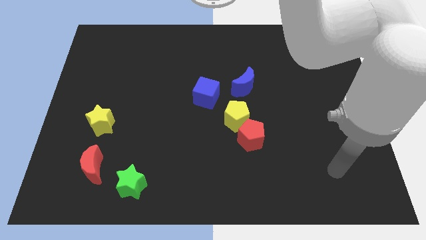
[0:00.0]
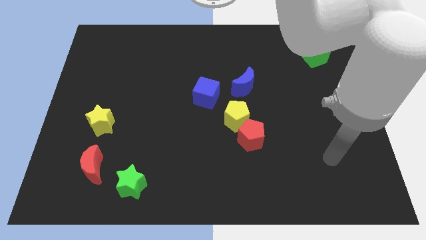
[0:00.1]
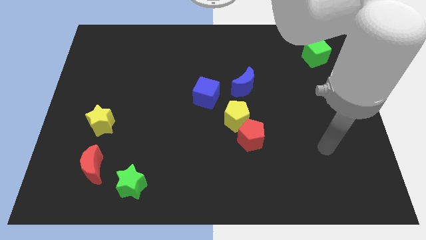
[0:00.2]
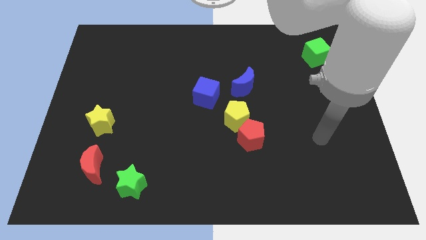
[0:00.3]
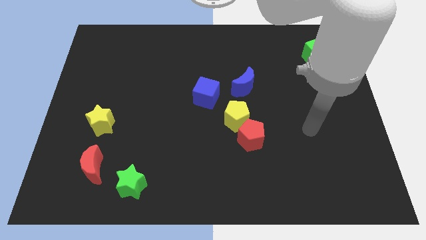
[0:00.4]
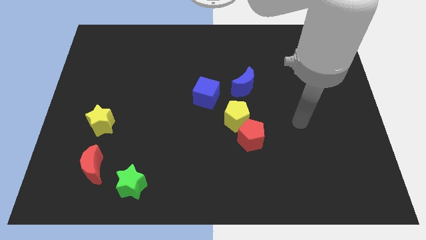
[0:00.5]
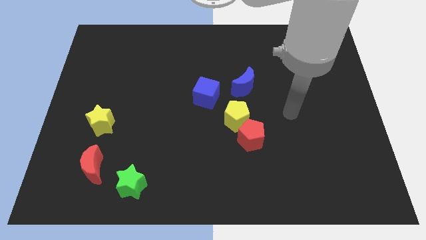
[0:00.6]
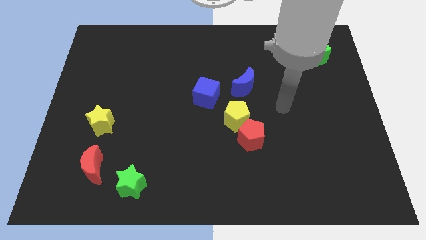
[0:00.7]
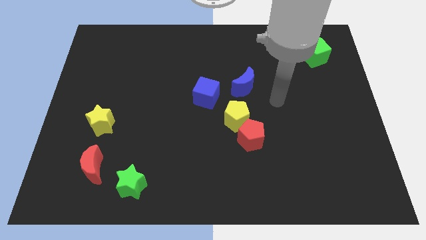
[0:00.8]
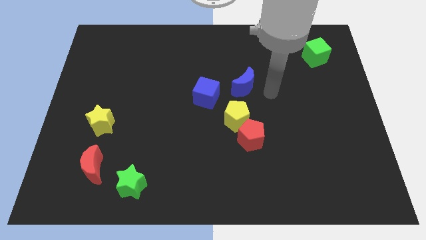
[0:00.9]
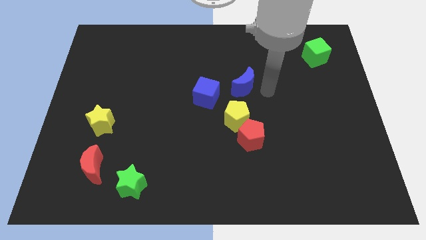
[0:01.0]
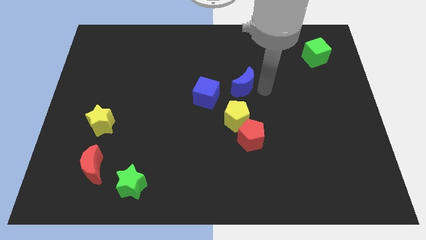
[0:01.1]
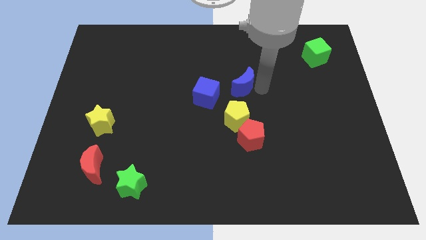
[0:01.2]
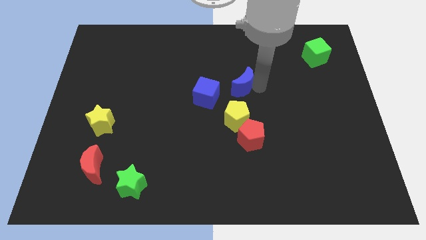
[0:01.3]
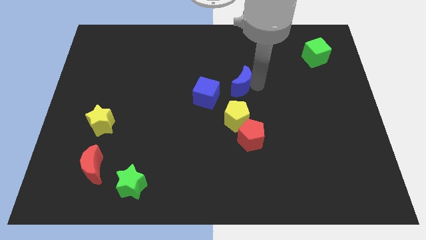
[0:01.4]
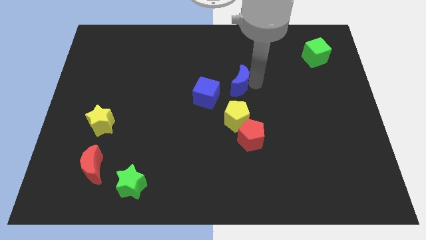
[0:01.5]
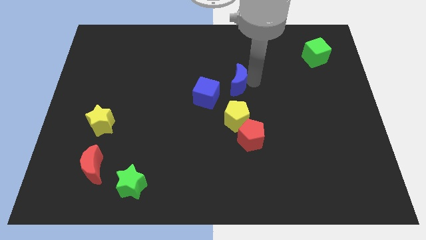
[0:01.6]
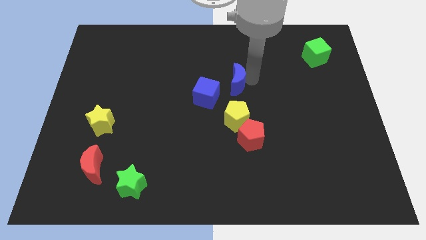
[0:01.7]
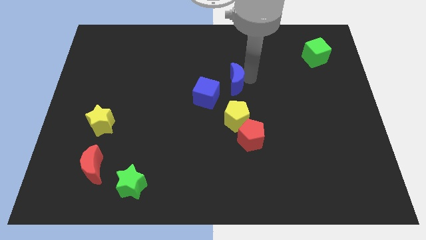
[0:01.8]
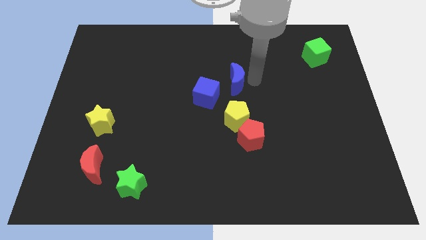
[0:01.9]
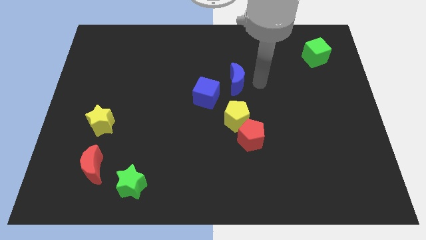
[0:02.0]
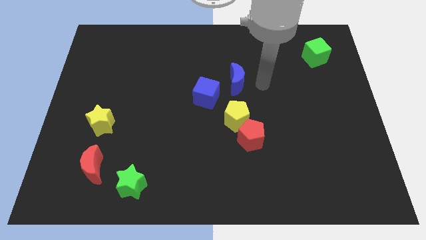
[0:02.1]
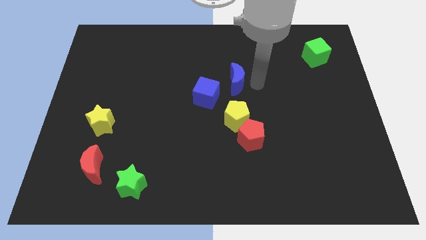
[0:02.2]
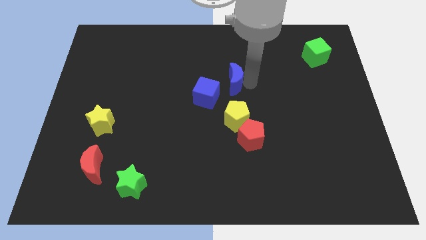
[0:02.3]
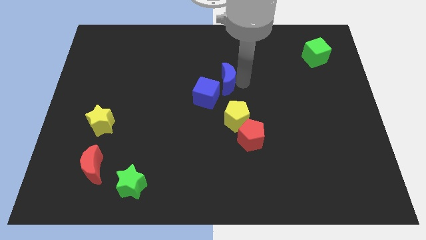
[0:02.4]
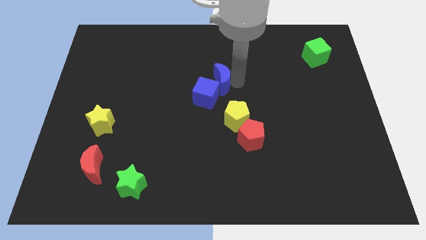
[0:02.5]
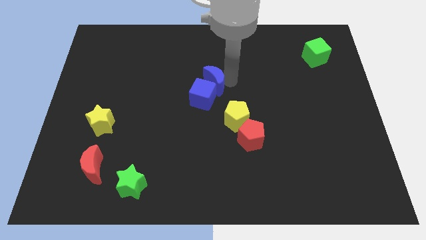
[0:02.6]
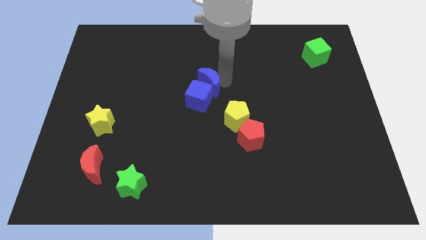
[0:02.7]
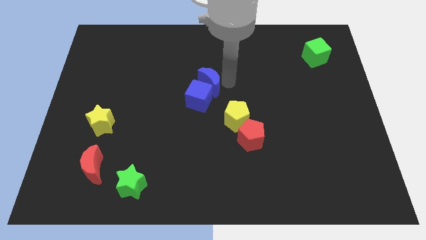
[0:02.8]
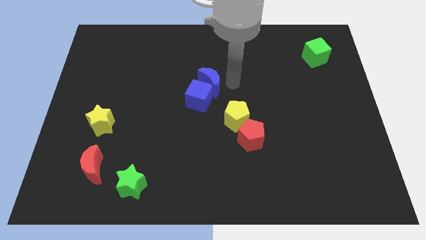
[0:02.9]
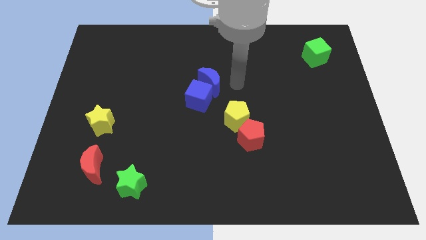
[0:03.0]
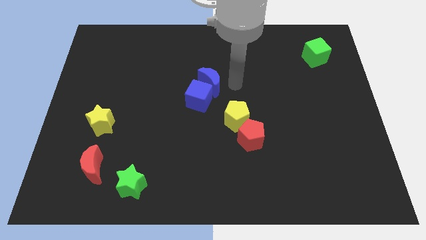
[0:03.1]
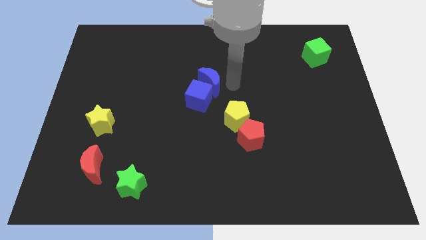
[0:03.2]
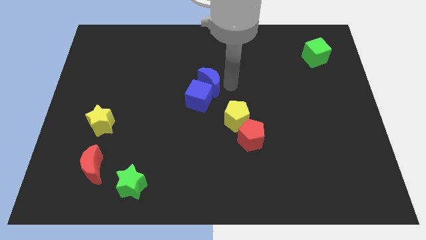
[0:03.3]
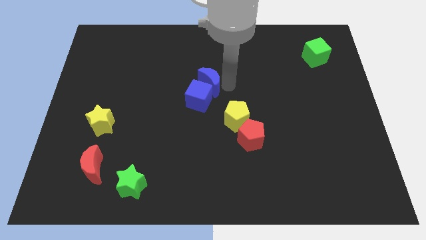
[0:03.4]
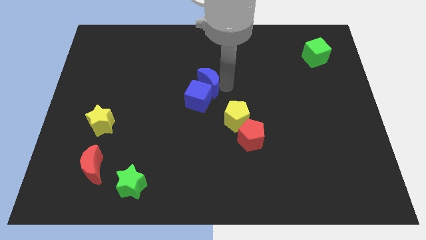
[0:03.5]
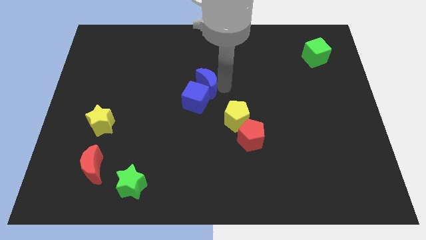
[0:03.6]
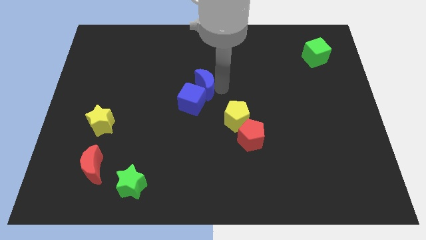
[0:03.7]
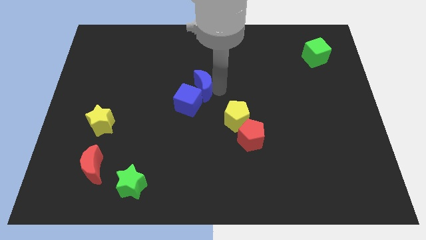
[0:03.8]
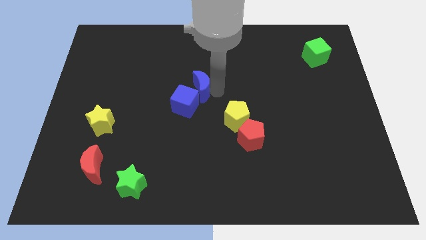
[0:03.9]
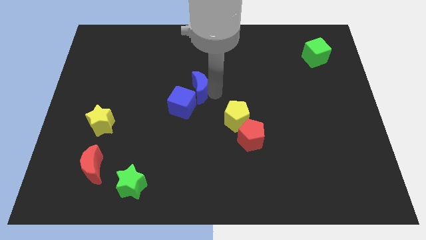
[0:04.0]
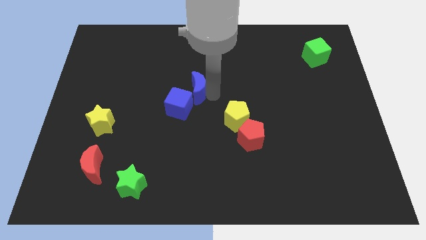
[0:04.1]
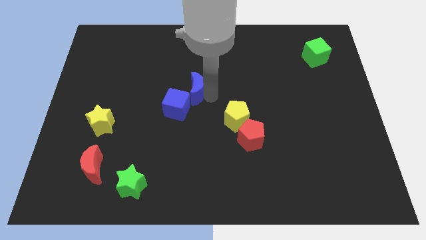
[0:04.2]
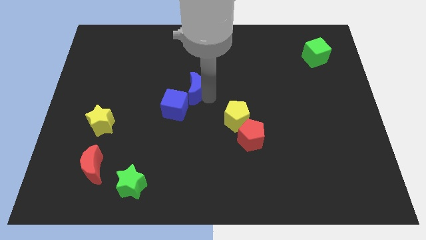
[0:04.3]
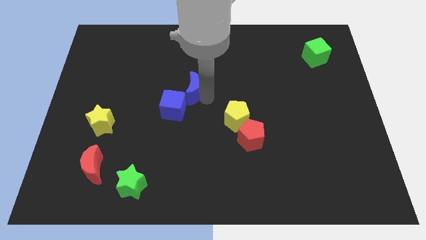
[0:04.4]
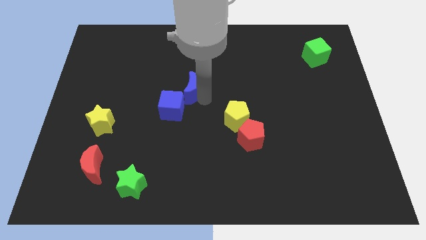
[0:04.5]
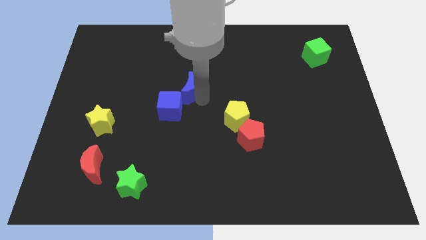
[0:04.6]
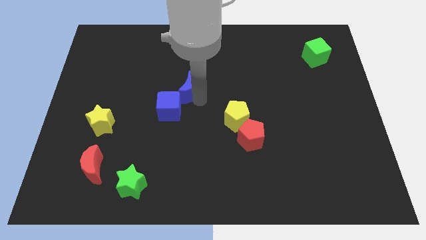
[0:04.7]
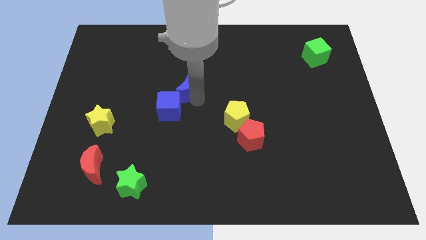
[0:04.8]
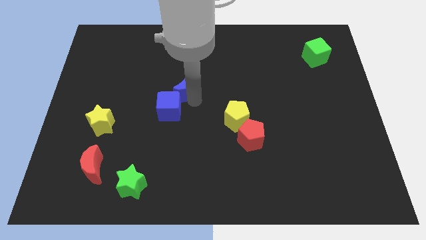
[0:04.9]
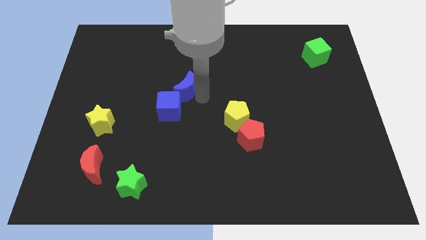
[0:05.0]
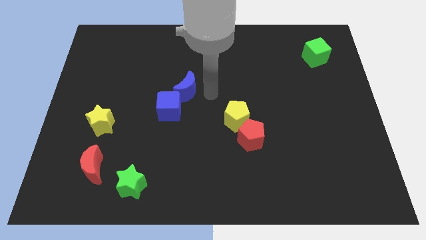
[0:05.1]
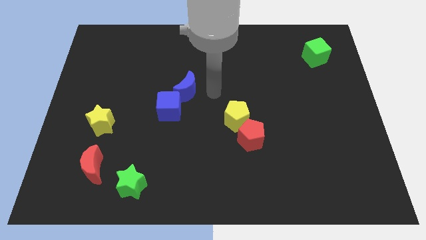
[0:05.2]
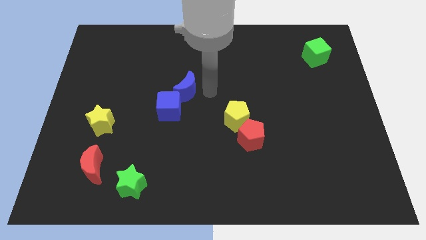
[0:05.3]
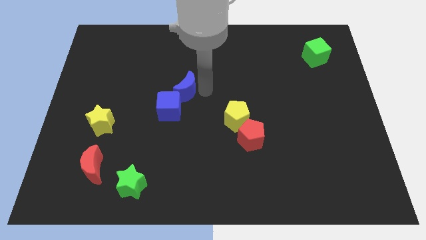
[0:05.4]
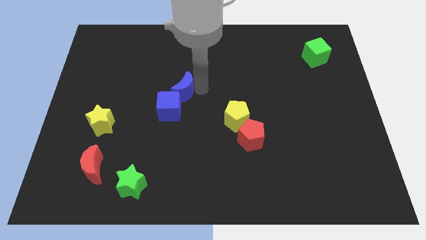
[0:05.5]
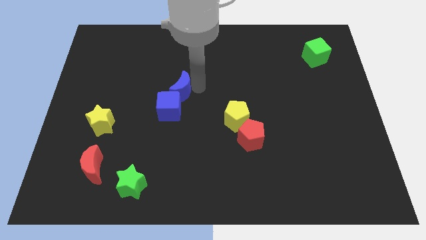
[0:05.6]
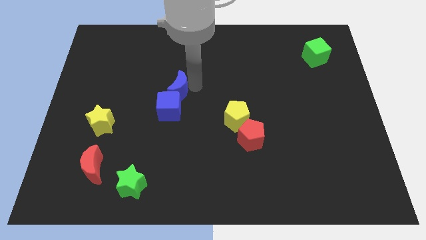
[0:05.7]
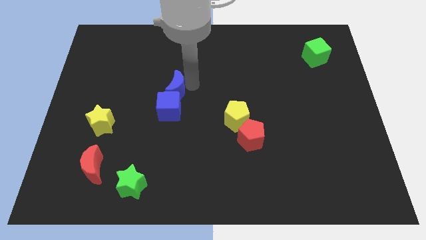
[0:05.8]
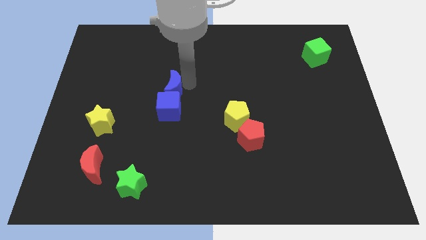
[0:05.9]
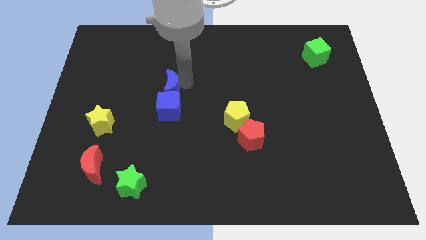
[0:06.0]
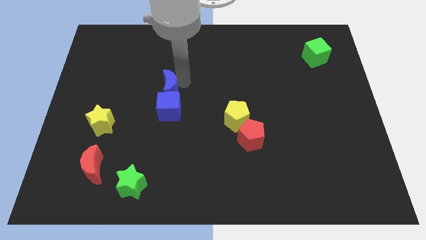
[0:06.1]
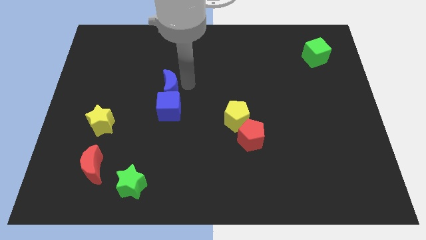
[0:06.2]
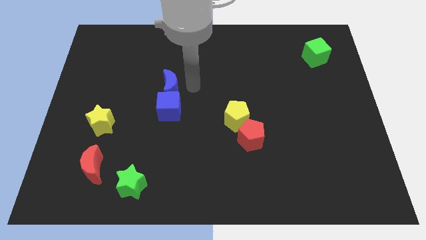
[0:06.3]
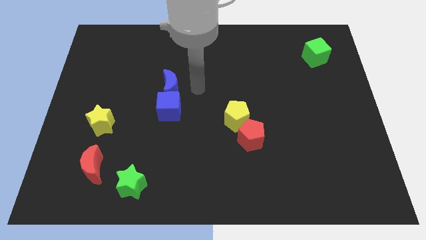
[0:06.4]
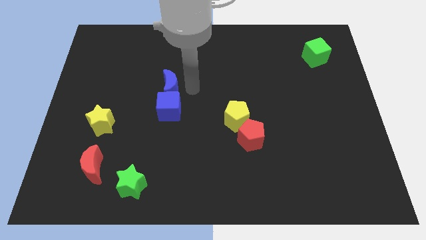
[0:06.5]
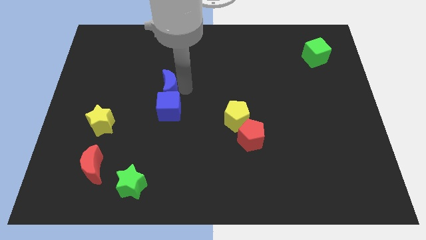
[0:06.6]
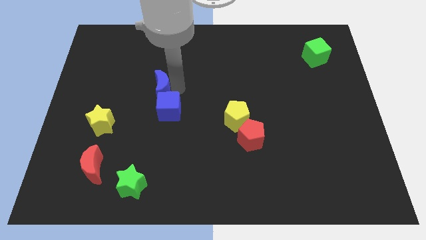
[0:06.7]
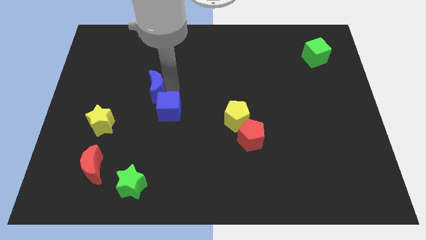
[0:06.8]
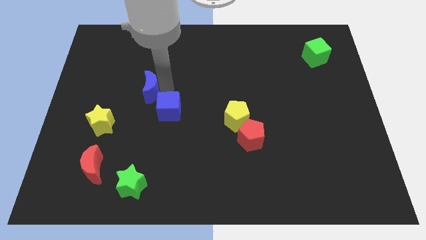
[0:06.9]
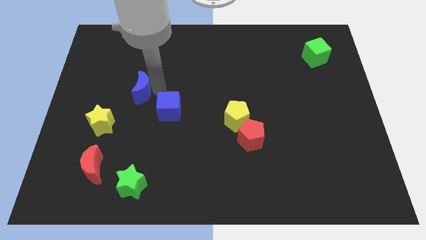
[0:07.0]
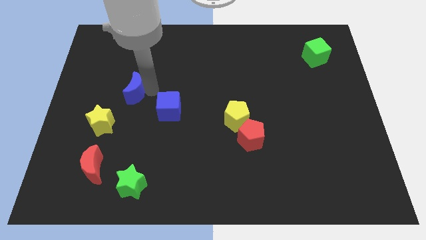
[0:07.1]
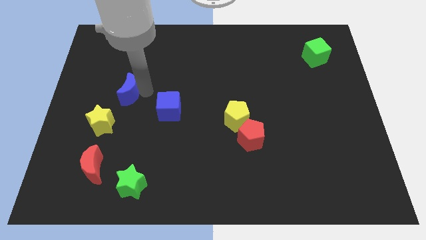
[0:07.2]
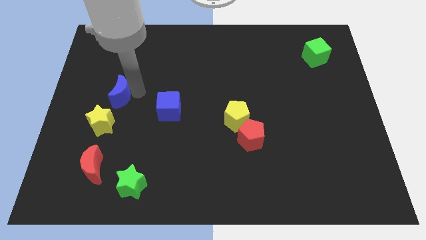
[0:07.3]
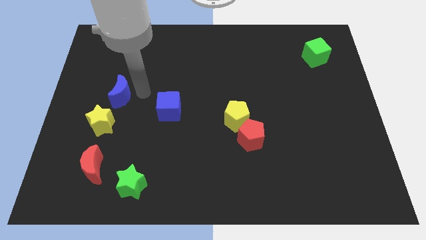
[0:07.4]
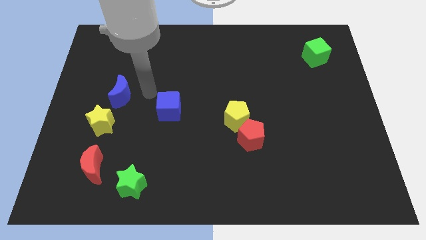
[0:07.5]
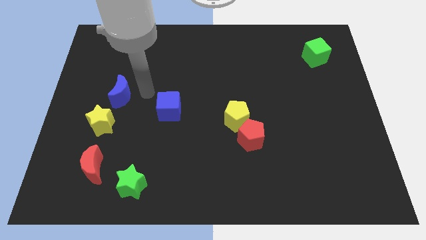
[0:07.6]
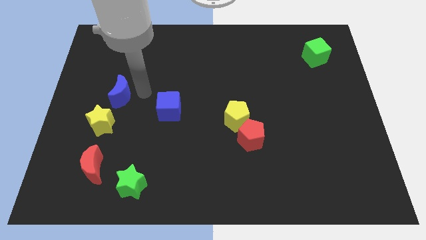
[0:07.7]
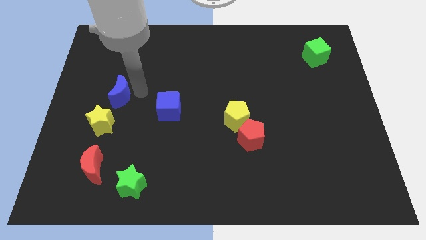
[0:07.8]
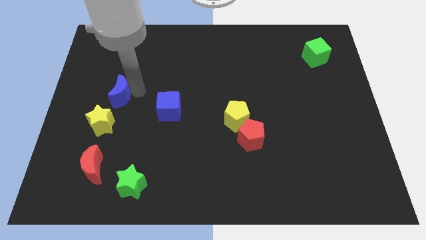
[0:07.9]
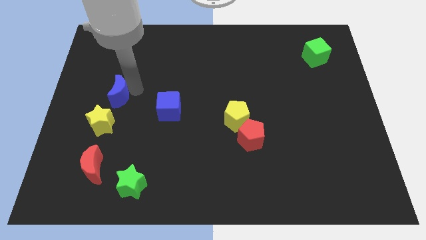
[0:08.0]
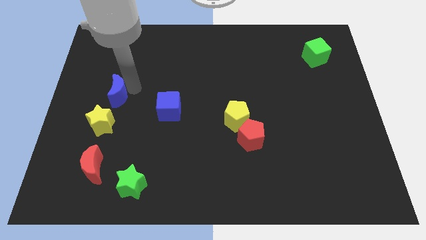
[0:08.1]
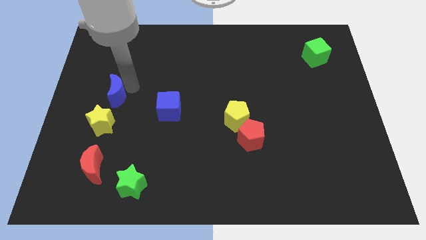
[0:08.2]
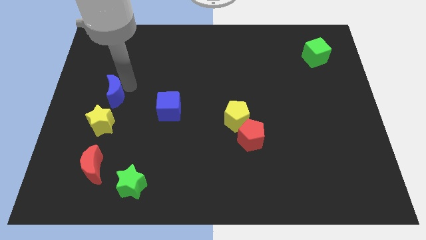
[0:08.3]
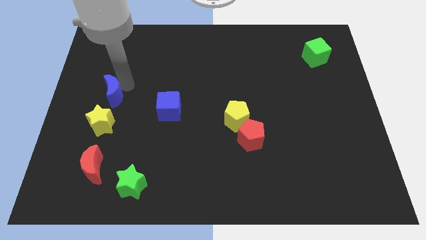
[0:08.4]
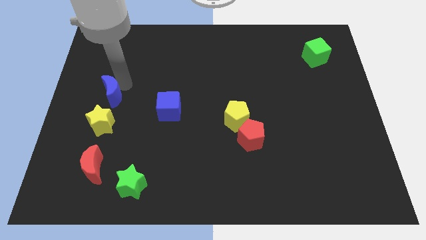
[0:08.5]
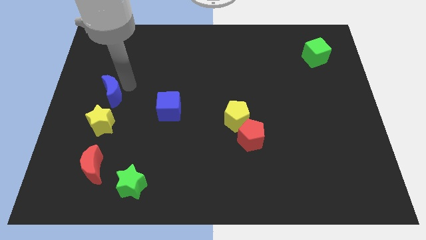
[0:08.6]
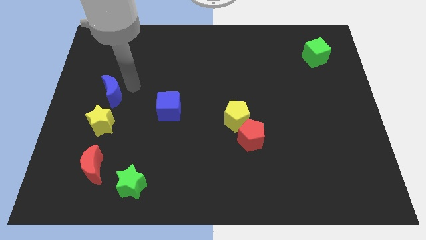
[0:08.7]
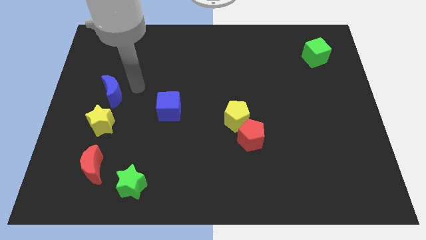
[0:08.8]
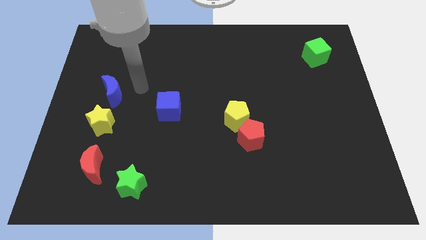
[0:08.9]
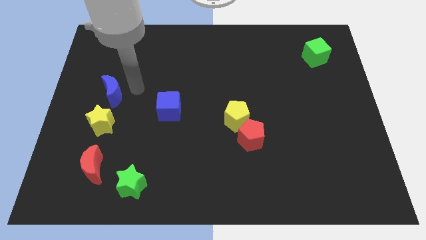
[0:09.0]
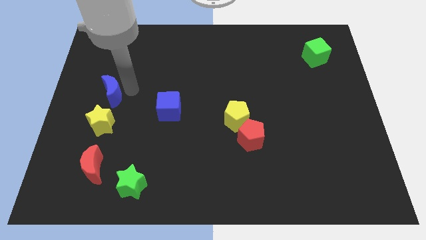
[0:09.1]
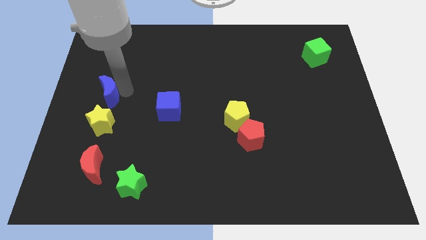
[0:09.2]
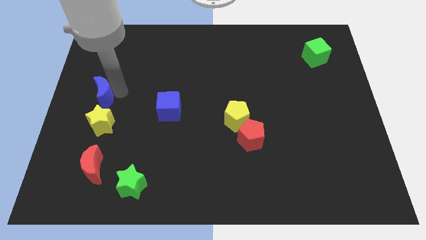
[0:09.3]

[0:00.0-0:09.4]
push the blue moon to the left side of the board
